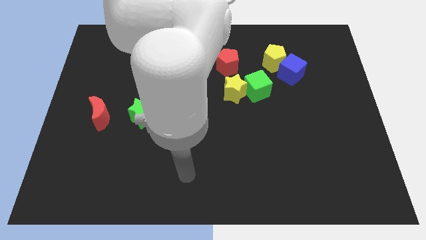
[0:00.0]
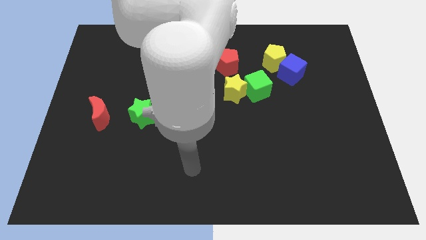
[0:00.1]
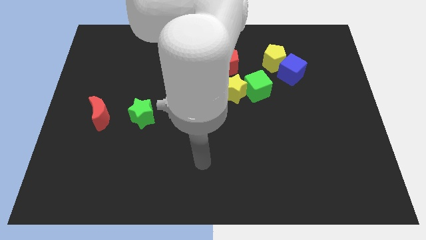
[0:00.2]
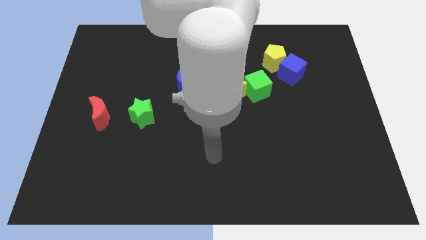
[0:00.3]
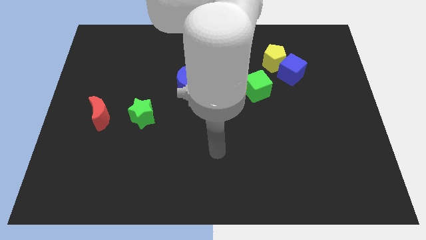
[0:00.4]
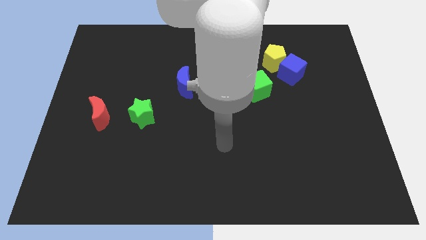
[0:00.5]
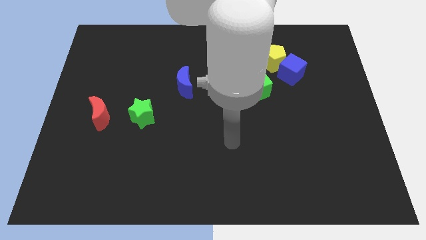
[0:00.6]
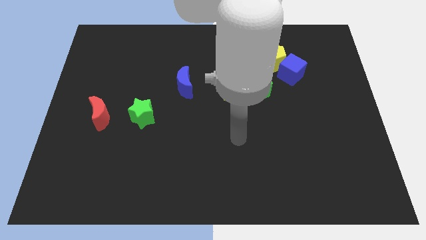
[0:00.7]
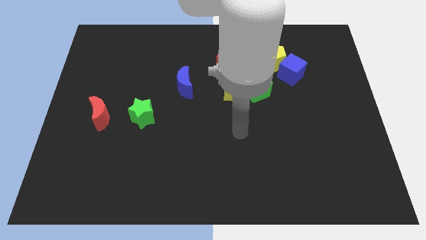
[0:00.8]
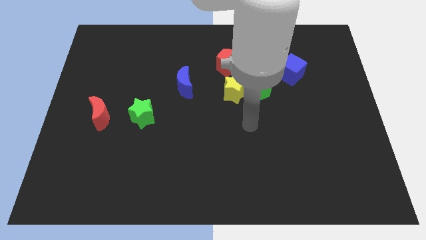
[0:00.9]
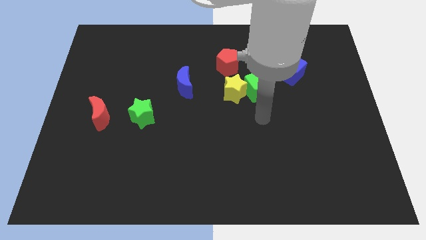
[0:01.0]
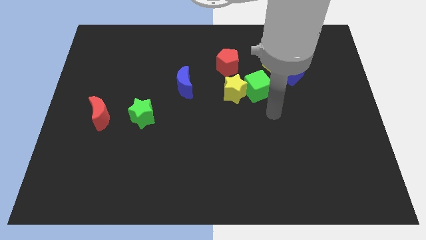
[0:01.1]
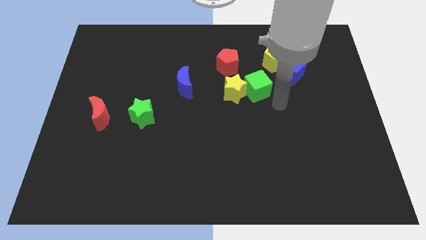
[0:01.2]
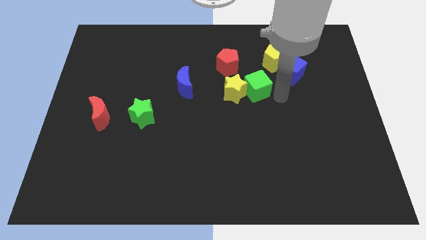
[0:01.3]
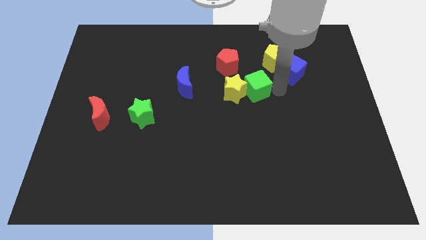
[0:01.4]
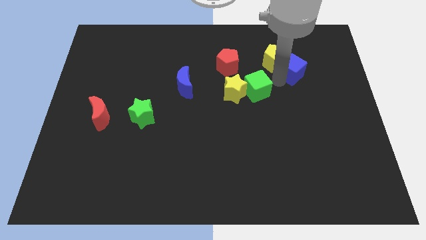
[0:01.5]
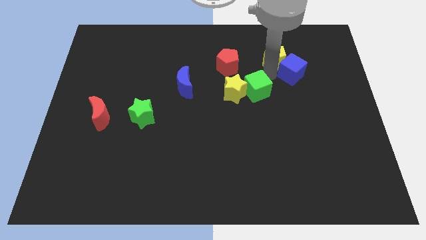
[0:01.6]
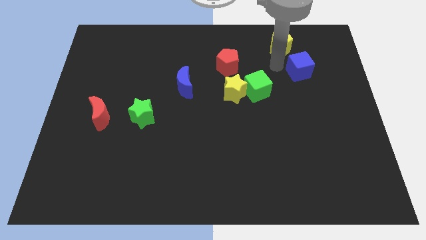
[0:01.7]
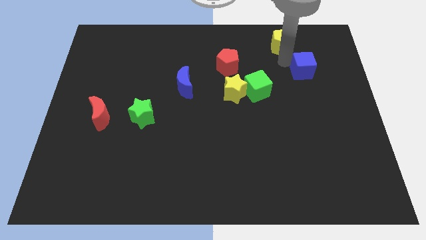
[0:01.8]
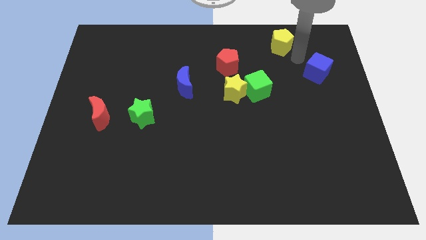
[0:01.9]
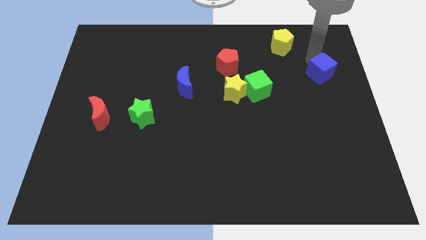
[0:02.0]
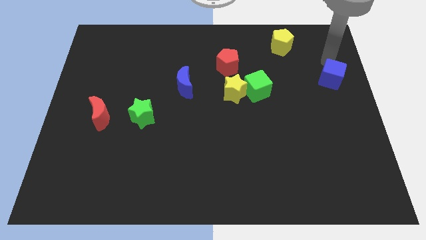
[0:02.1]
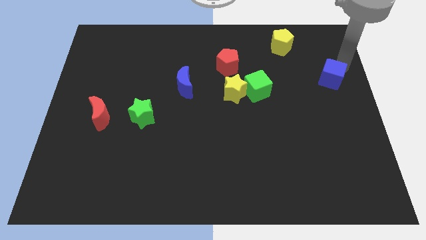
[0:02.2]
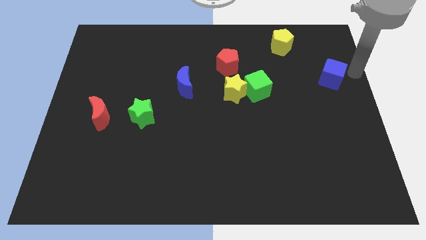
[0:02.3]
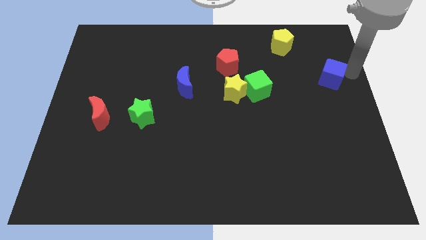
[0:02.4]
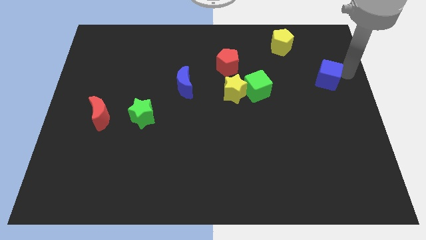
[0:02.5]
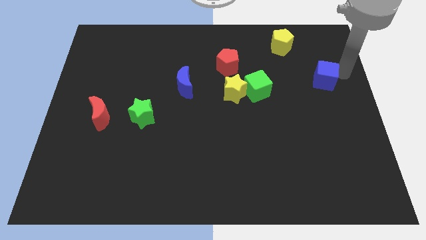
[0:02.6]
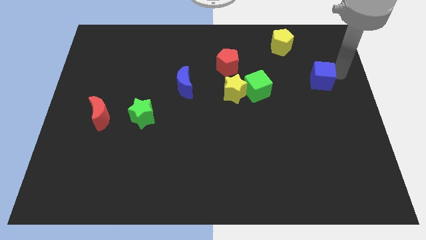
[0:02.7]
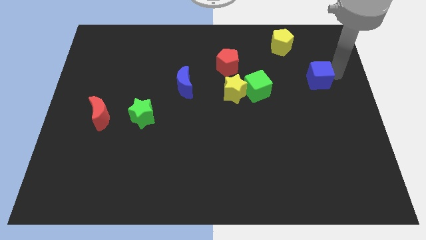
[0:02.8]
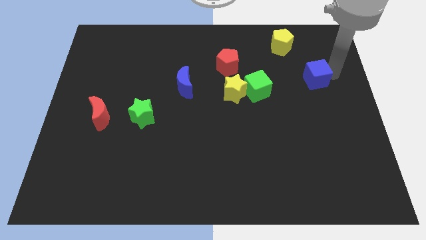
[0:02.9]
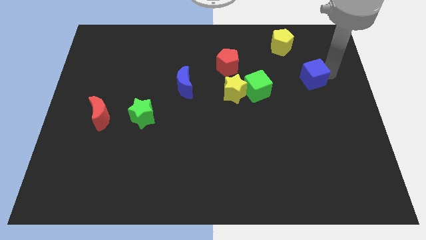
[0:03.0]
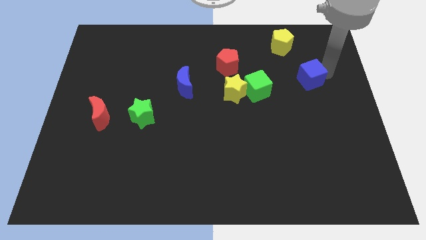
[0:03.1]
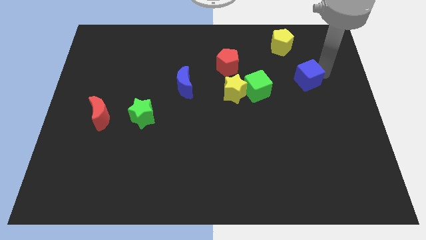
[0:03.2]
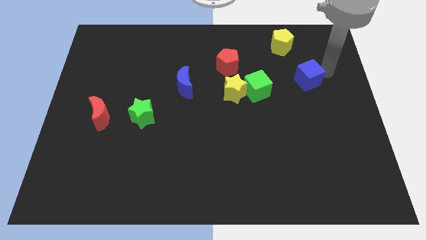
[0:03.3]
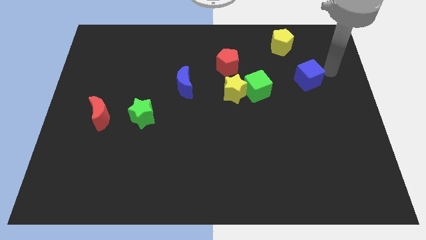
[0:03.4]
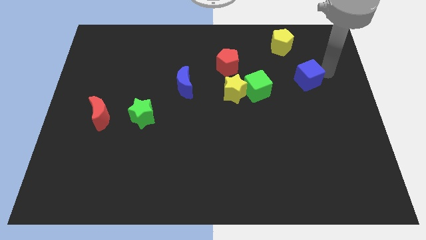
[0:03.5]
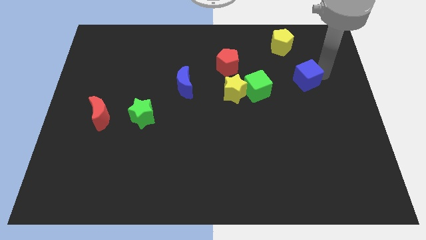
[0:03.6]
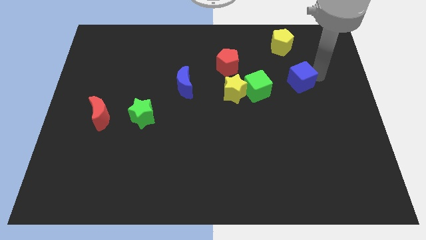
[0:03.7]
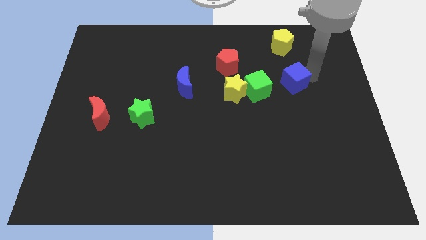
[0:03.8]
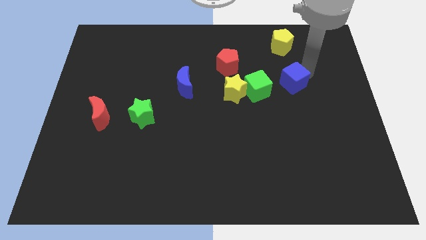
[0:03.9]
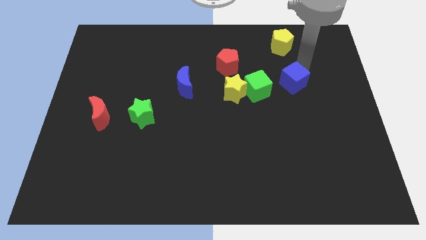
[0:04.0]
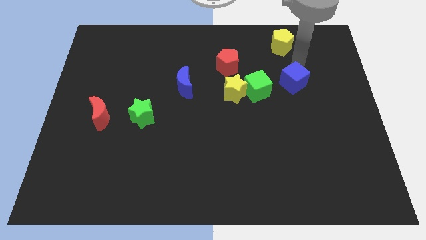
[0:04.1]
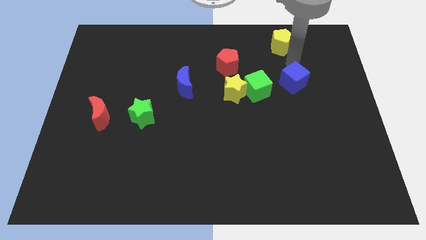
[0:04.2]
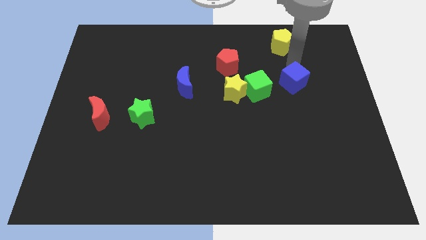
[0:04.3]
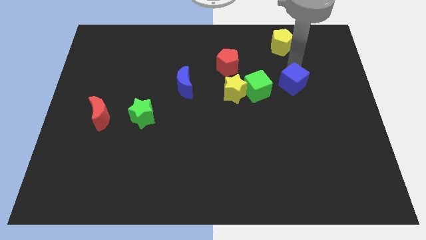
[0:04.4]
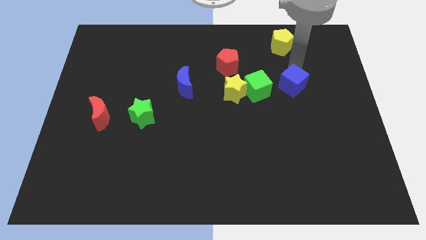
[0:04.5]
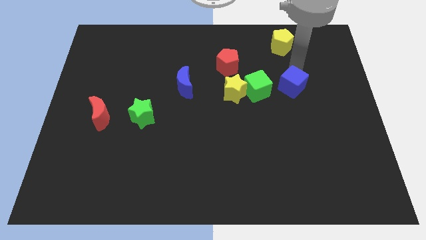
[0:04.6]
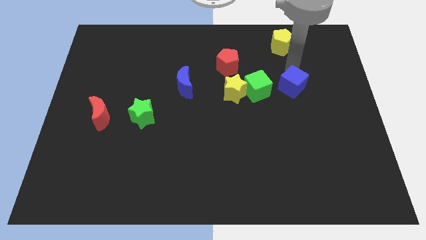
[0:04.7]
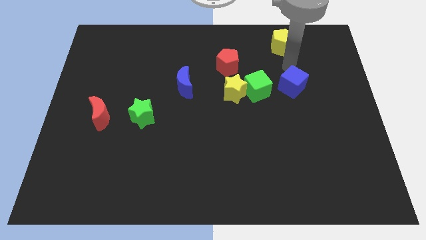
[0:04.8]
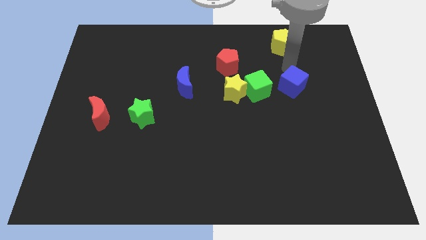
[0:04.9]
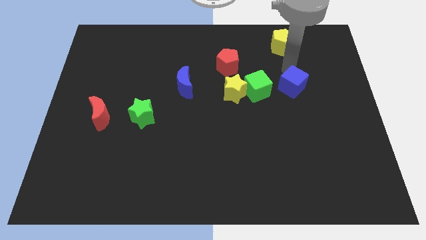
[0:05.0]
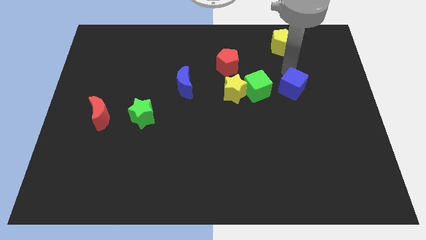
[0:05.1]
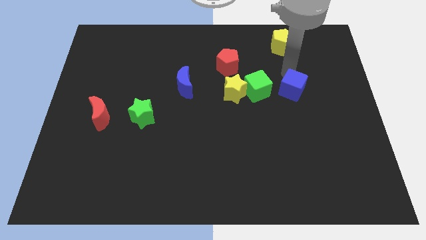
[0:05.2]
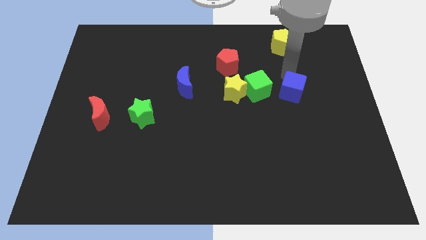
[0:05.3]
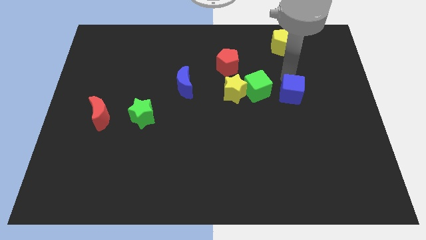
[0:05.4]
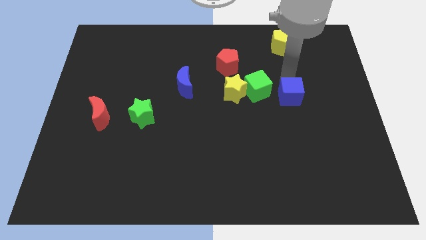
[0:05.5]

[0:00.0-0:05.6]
slightly push the blue cube downwards

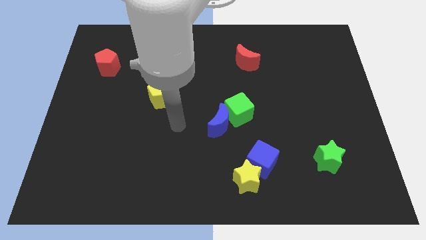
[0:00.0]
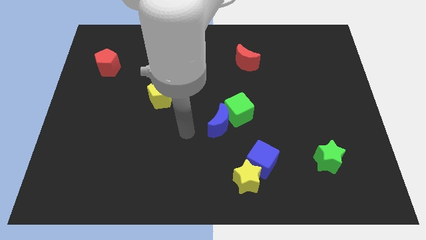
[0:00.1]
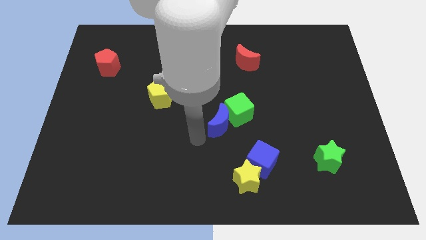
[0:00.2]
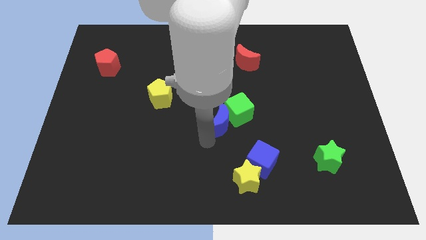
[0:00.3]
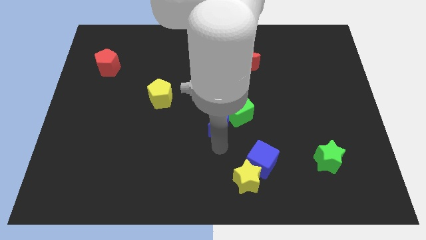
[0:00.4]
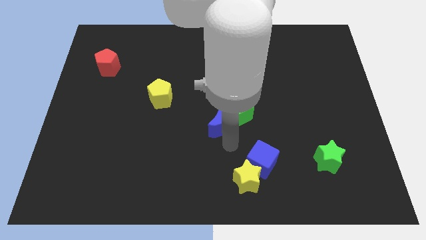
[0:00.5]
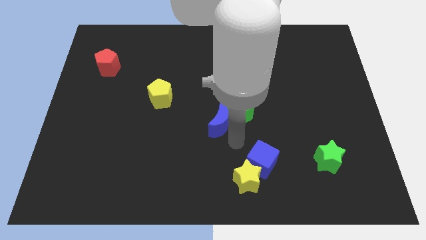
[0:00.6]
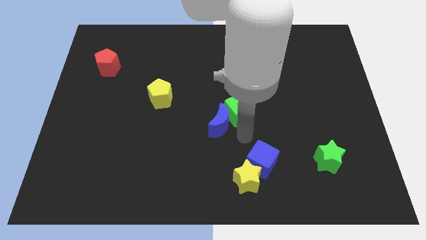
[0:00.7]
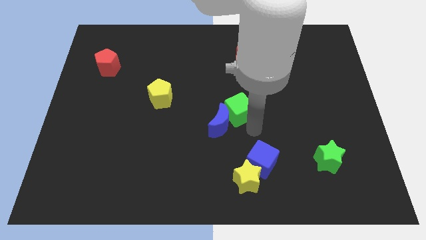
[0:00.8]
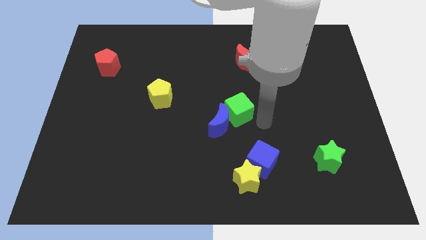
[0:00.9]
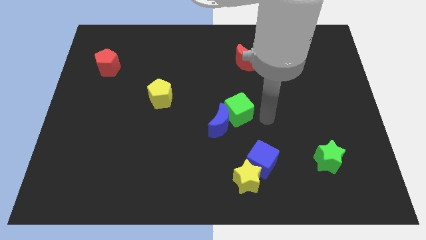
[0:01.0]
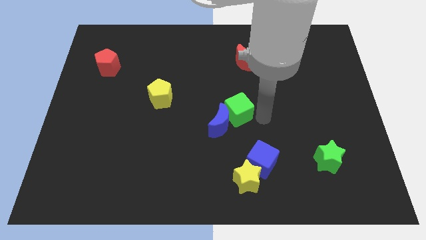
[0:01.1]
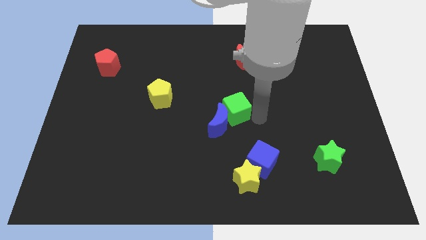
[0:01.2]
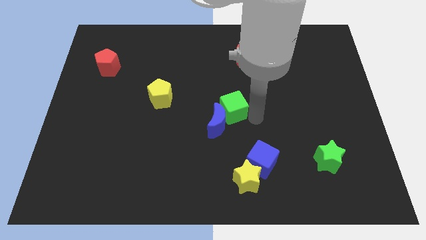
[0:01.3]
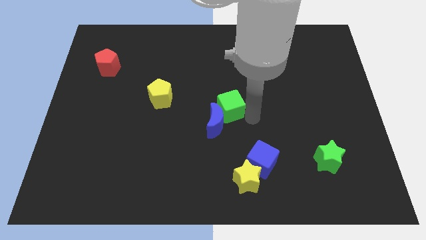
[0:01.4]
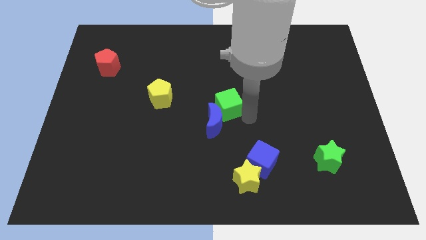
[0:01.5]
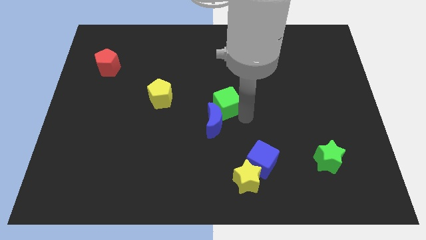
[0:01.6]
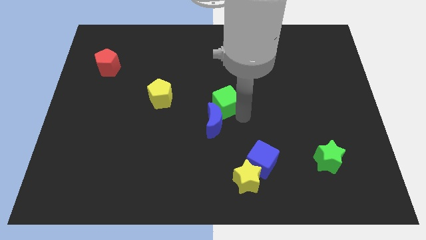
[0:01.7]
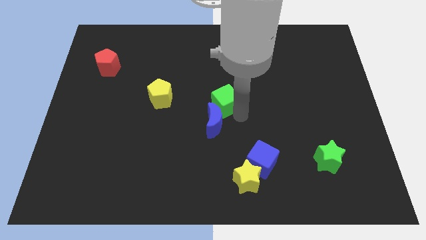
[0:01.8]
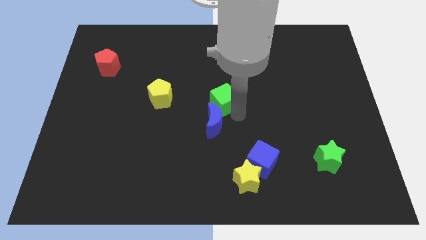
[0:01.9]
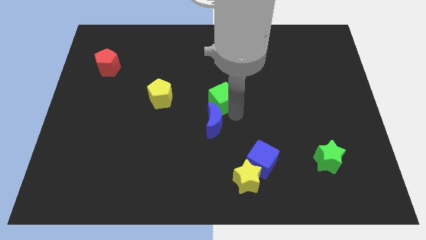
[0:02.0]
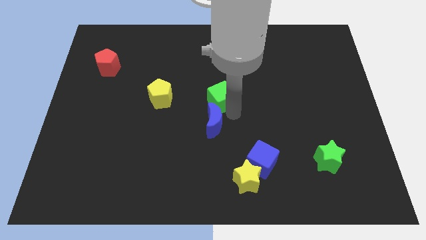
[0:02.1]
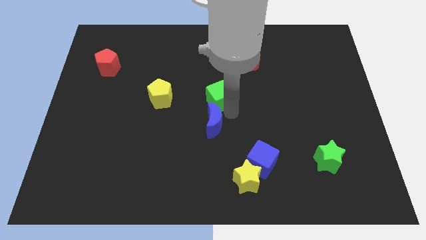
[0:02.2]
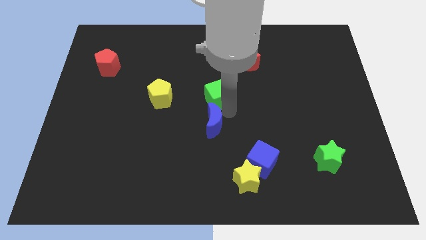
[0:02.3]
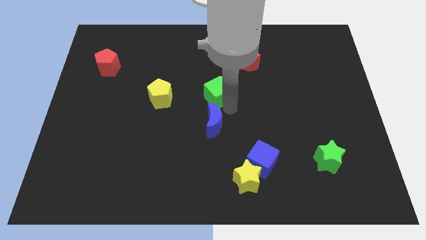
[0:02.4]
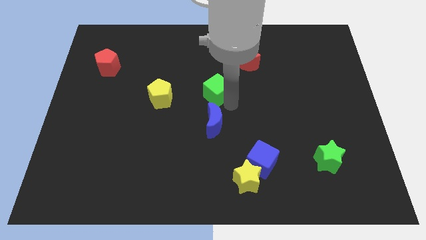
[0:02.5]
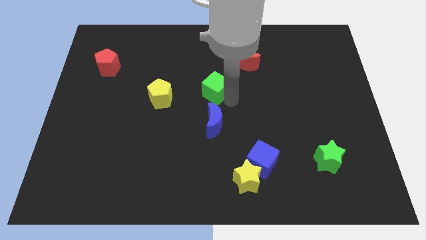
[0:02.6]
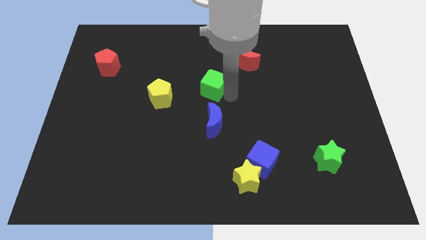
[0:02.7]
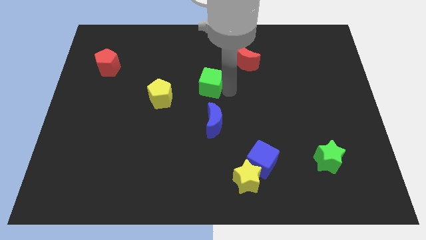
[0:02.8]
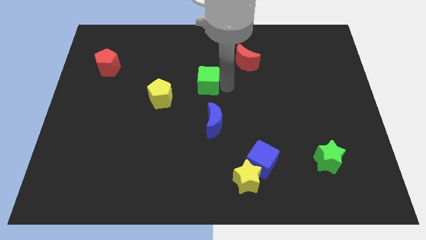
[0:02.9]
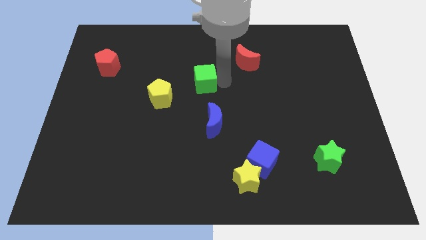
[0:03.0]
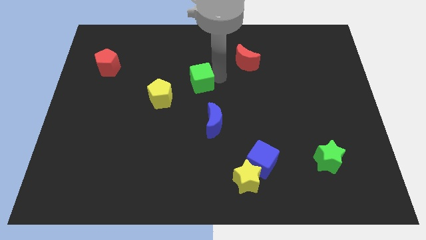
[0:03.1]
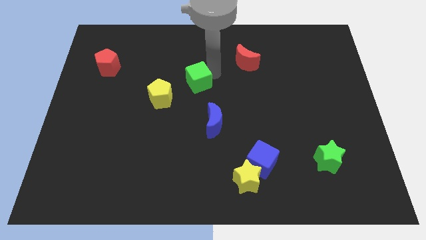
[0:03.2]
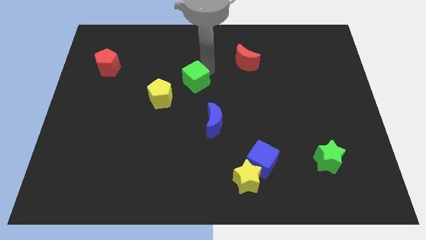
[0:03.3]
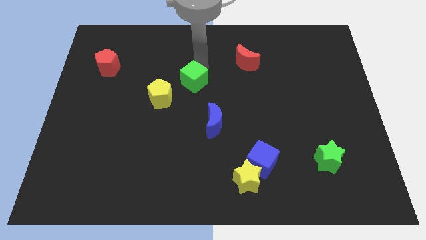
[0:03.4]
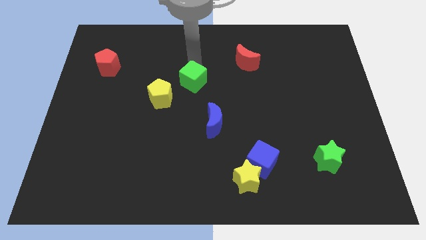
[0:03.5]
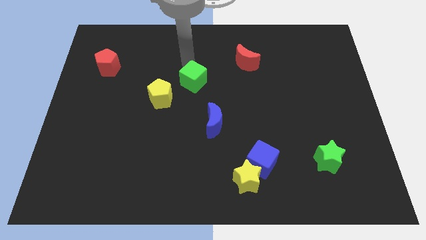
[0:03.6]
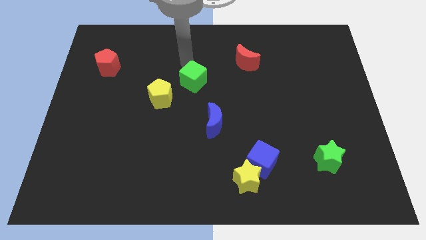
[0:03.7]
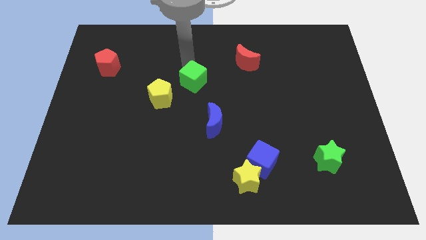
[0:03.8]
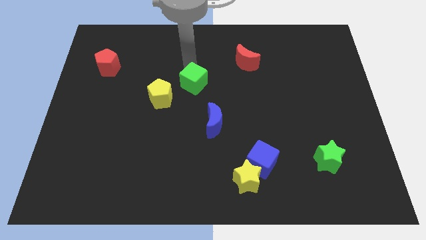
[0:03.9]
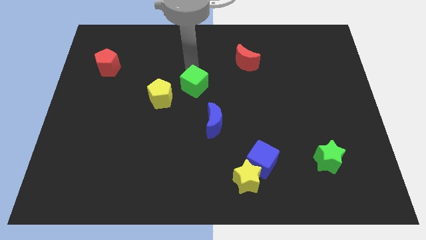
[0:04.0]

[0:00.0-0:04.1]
slightly push the green cube left
